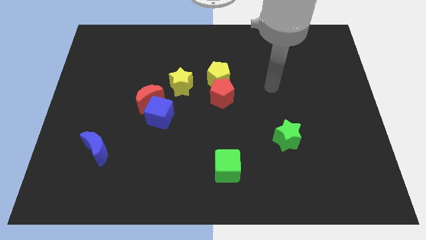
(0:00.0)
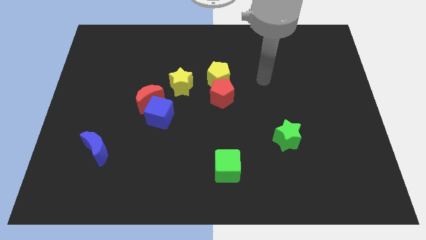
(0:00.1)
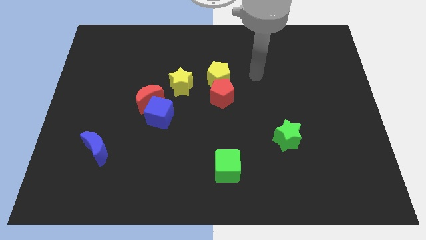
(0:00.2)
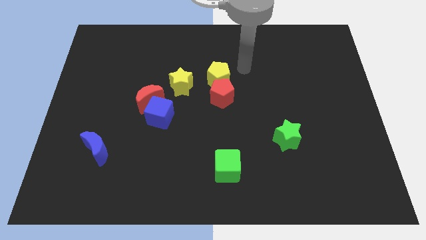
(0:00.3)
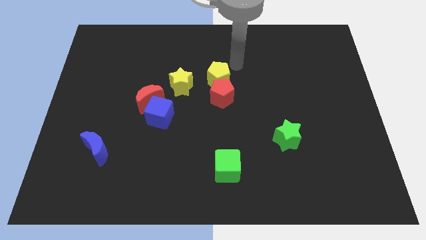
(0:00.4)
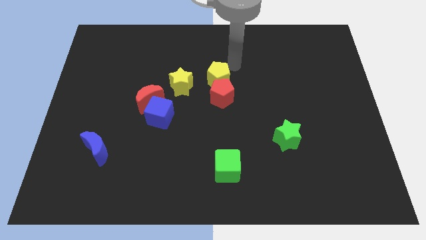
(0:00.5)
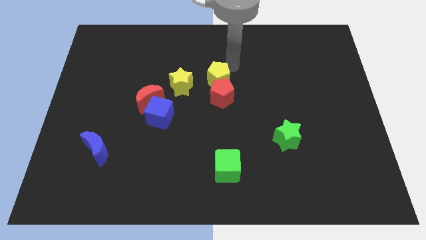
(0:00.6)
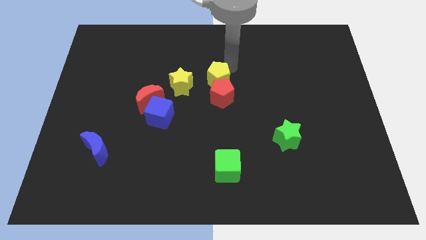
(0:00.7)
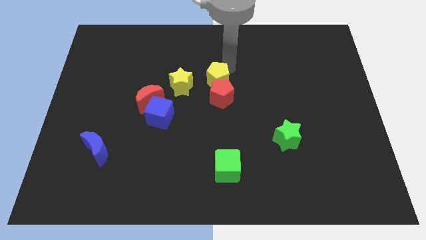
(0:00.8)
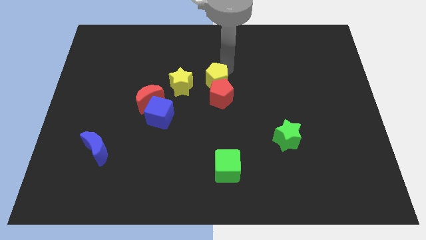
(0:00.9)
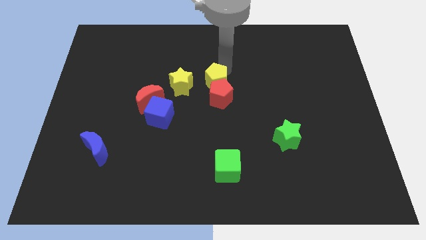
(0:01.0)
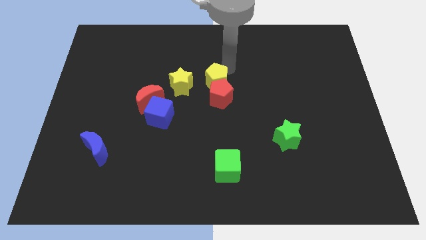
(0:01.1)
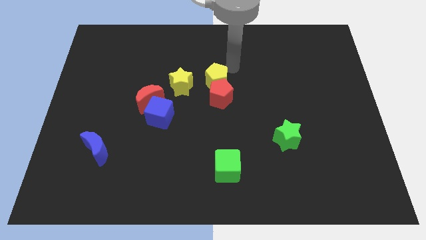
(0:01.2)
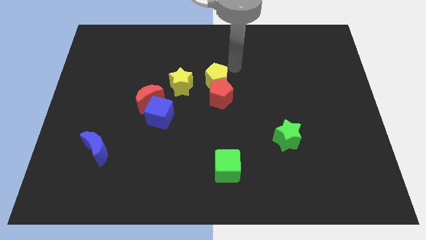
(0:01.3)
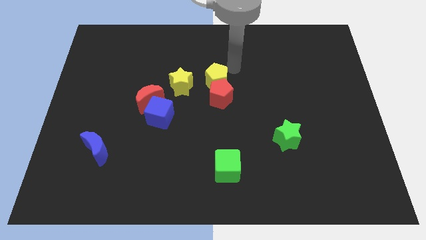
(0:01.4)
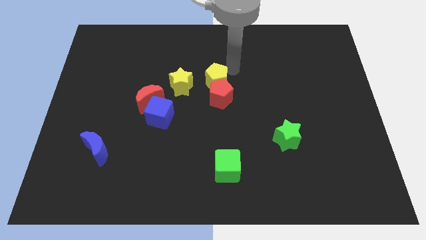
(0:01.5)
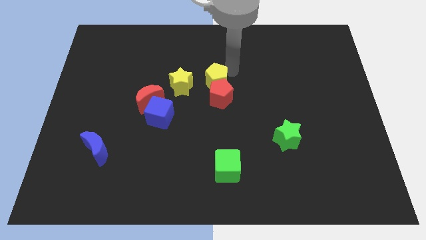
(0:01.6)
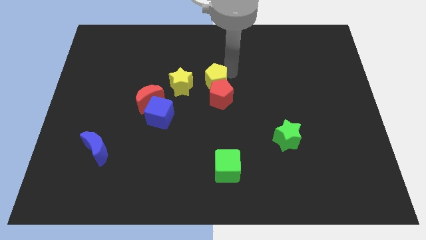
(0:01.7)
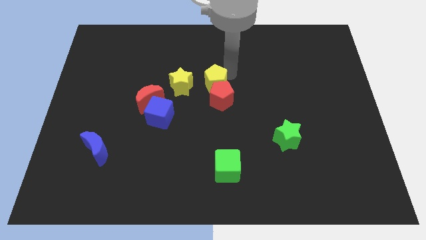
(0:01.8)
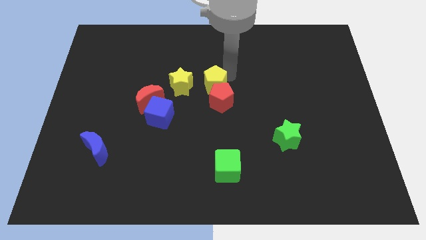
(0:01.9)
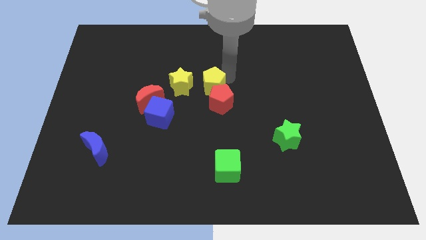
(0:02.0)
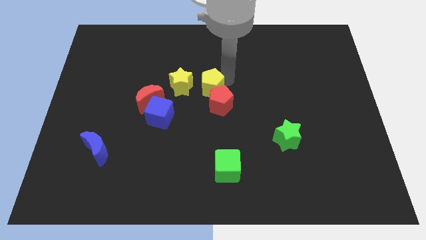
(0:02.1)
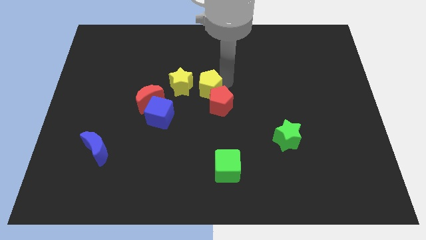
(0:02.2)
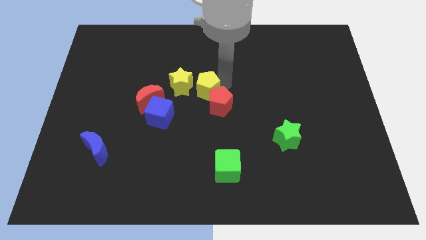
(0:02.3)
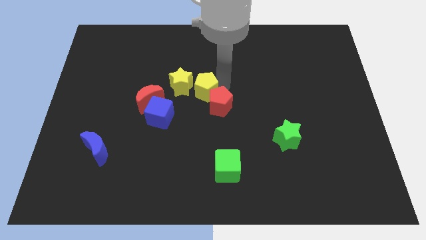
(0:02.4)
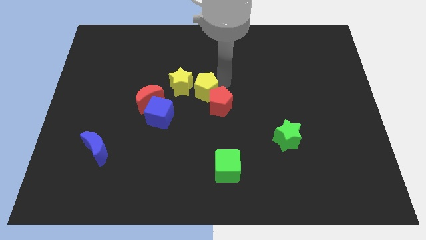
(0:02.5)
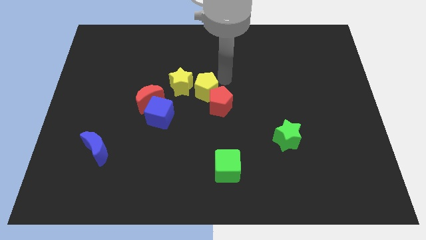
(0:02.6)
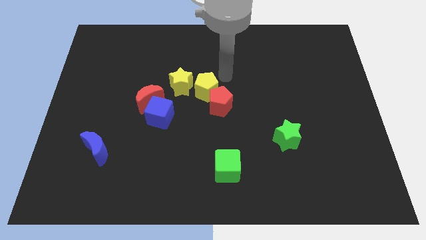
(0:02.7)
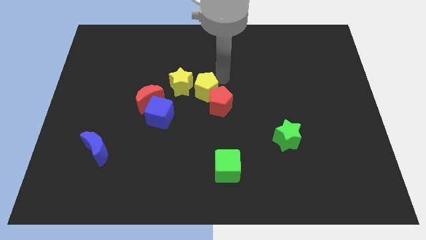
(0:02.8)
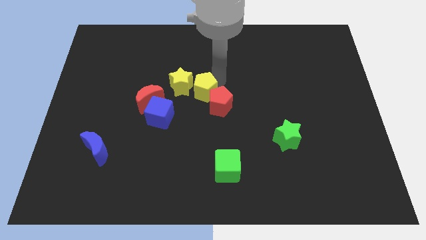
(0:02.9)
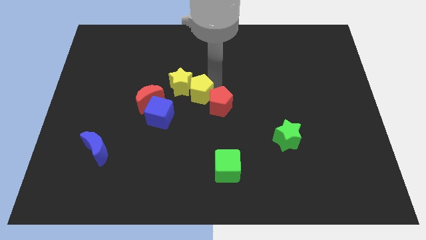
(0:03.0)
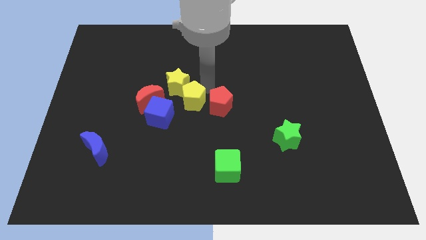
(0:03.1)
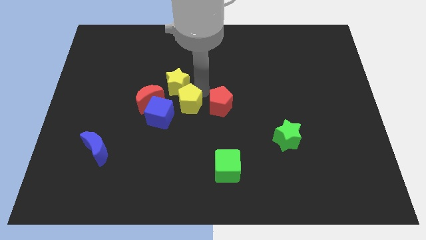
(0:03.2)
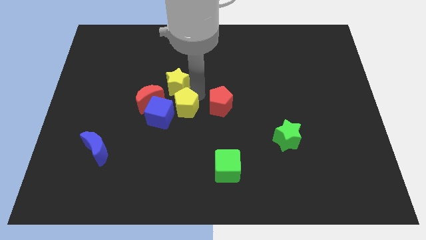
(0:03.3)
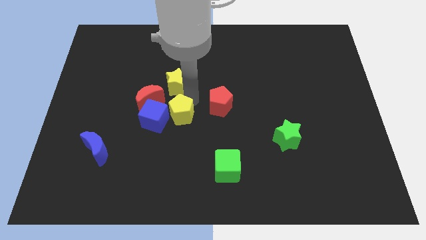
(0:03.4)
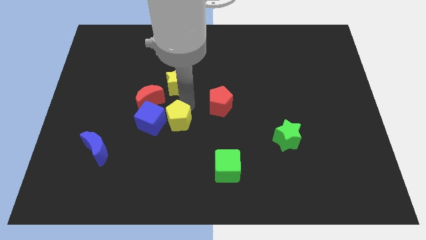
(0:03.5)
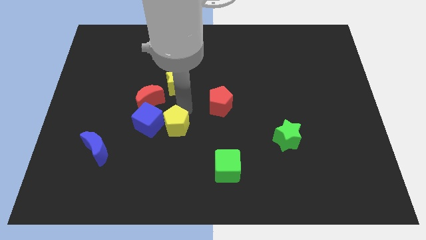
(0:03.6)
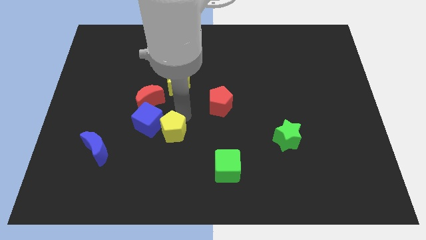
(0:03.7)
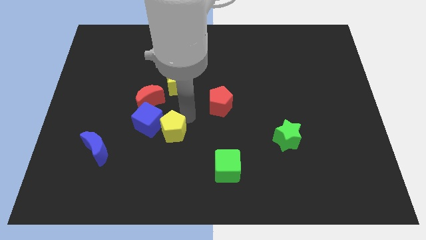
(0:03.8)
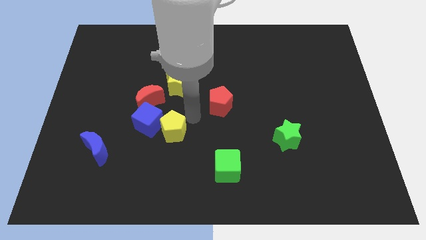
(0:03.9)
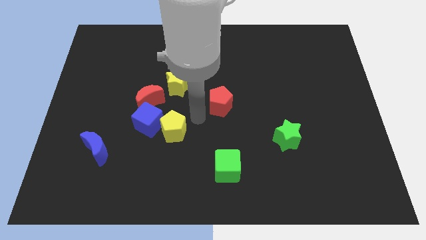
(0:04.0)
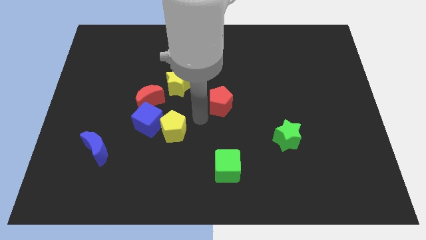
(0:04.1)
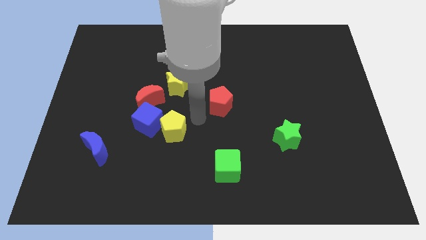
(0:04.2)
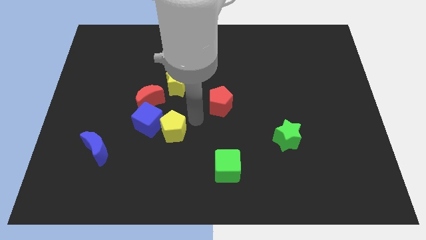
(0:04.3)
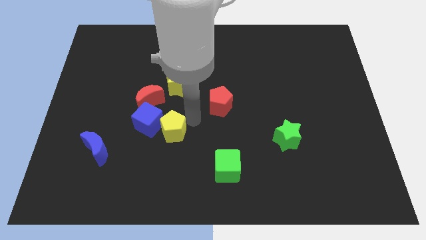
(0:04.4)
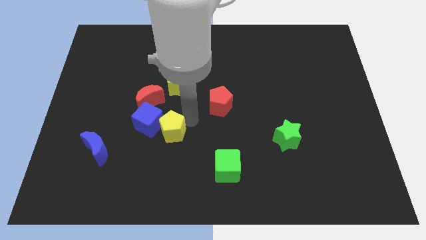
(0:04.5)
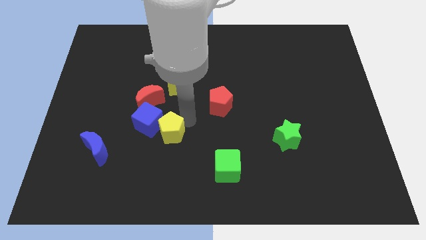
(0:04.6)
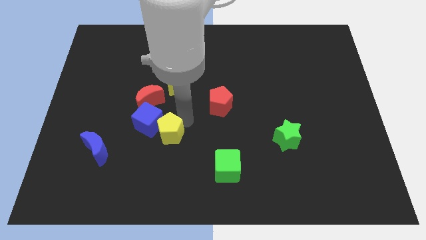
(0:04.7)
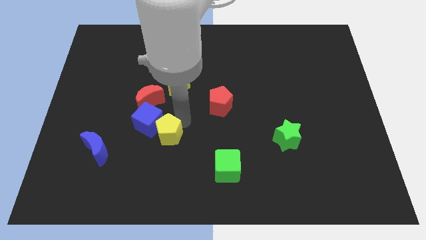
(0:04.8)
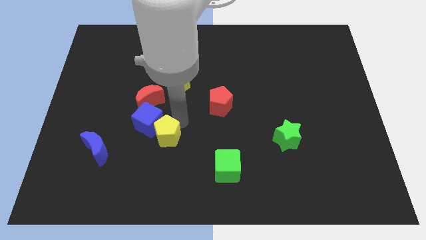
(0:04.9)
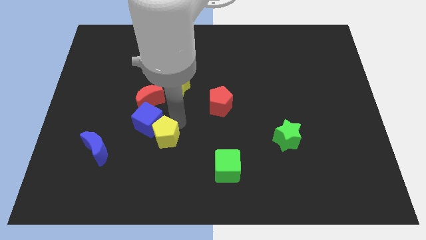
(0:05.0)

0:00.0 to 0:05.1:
move the yellow pentagon down and then left

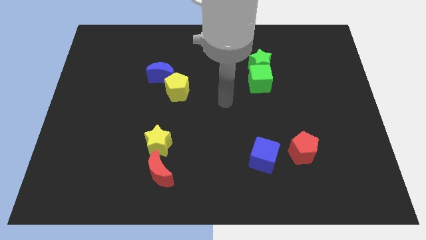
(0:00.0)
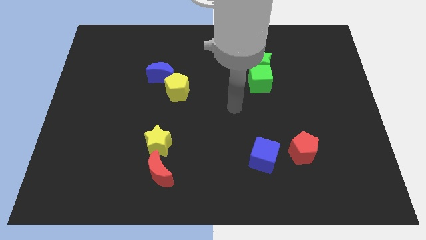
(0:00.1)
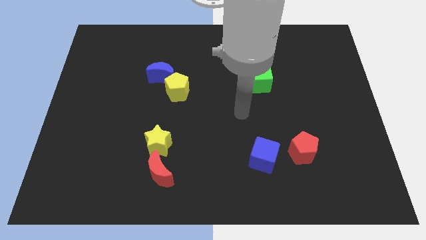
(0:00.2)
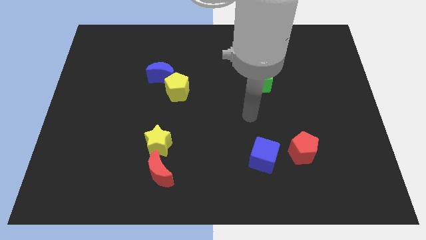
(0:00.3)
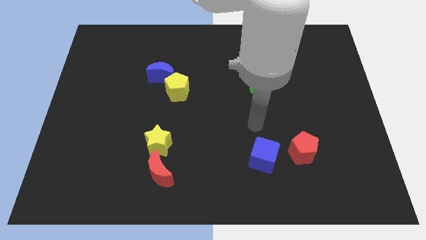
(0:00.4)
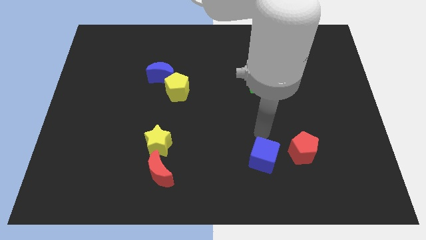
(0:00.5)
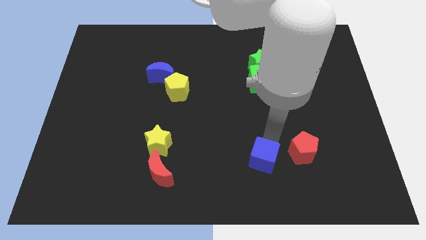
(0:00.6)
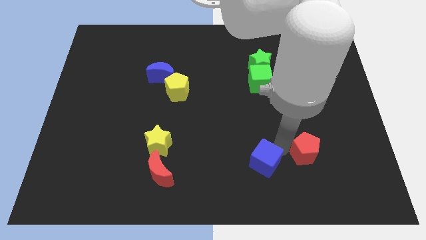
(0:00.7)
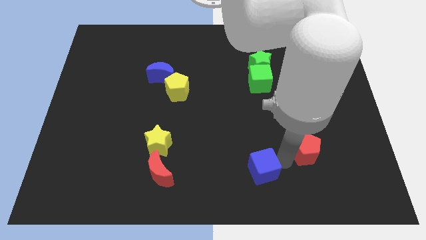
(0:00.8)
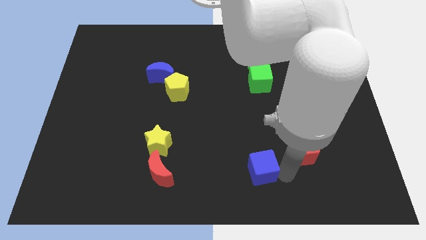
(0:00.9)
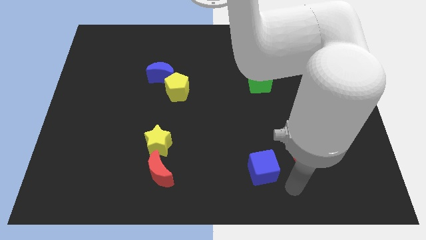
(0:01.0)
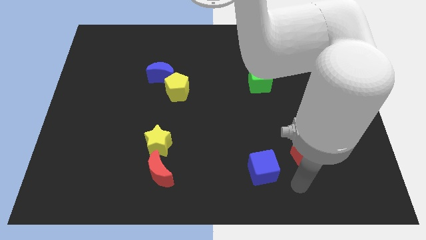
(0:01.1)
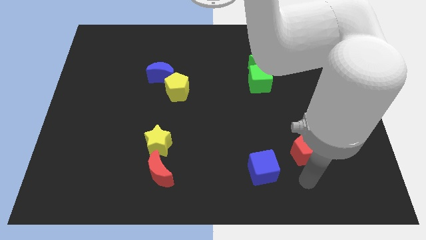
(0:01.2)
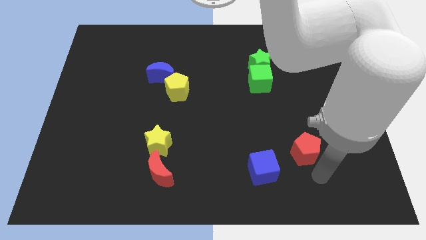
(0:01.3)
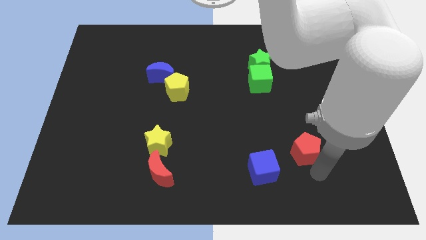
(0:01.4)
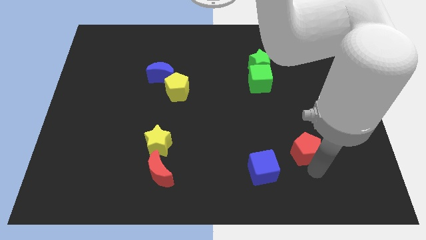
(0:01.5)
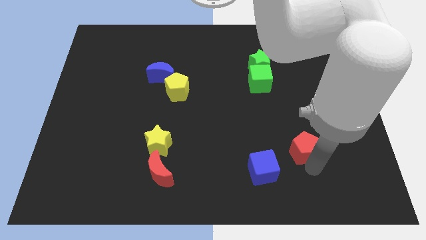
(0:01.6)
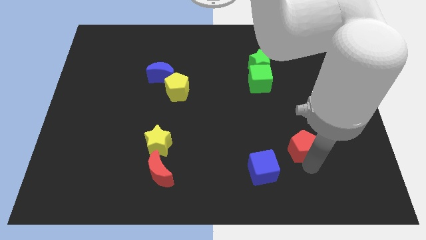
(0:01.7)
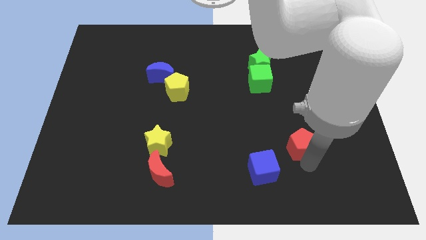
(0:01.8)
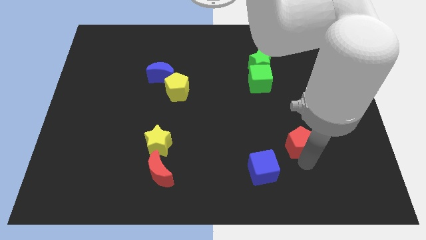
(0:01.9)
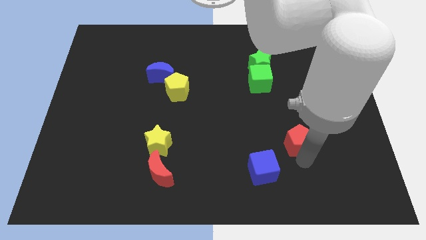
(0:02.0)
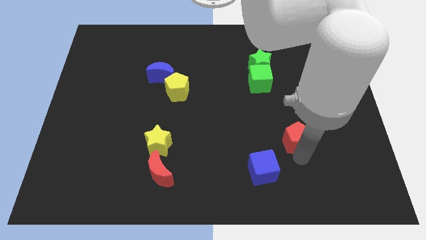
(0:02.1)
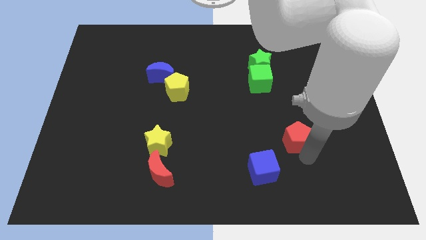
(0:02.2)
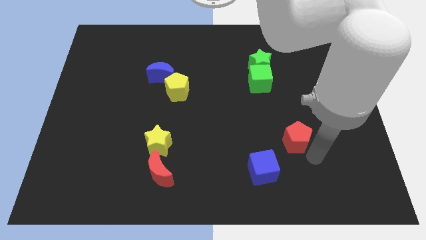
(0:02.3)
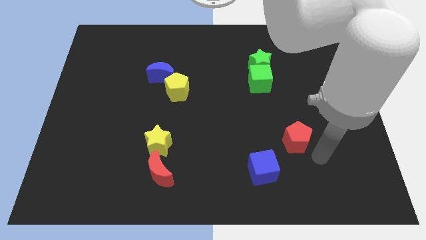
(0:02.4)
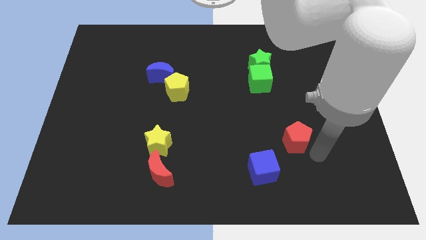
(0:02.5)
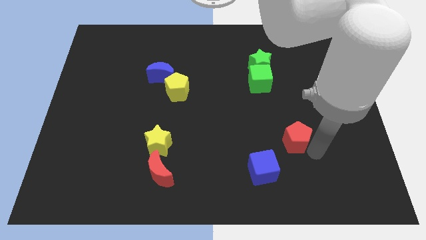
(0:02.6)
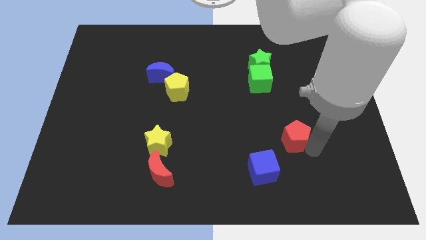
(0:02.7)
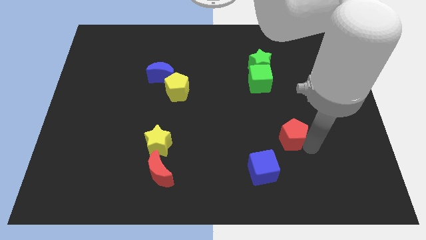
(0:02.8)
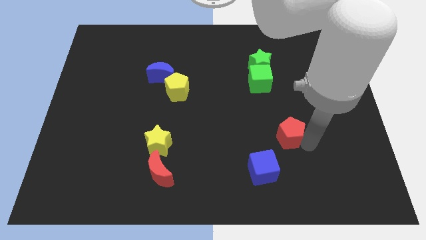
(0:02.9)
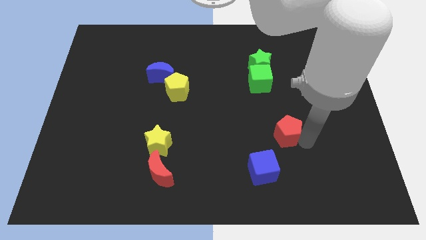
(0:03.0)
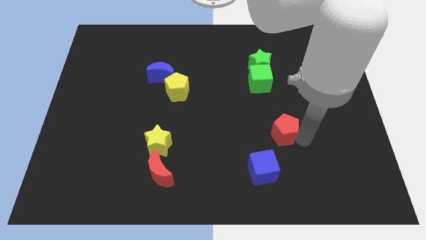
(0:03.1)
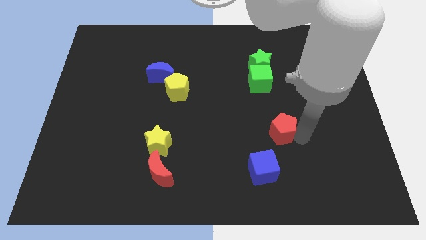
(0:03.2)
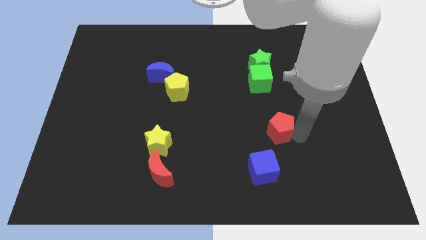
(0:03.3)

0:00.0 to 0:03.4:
slide the red pentagon a little bit up and to the left diagonally
